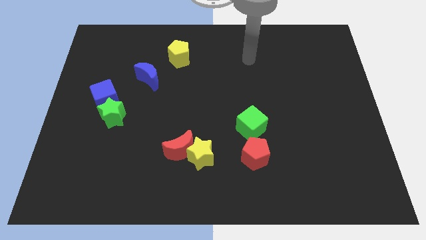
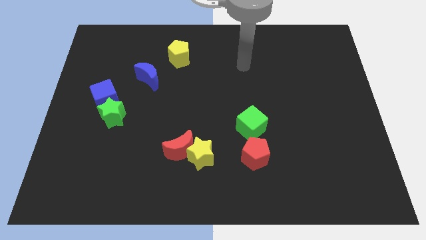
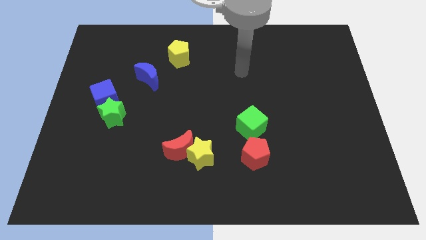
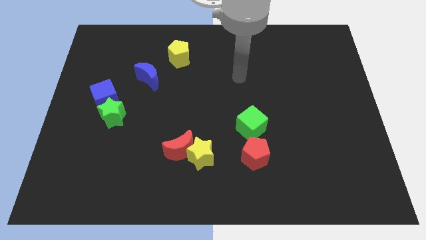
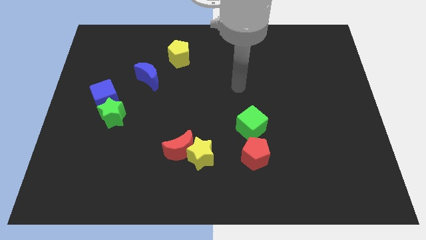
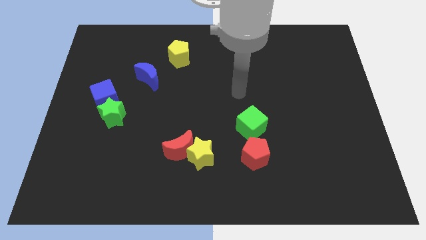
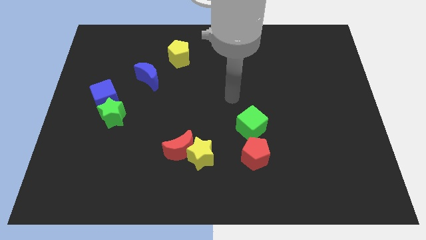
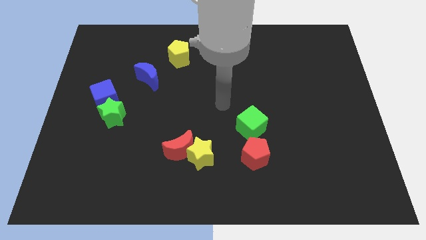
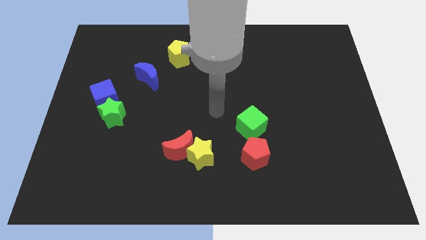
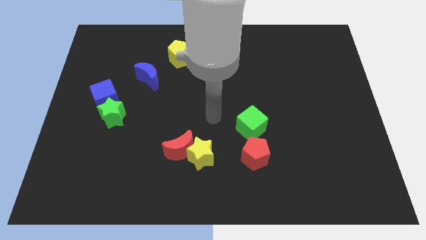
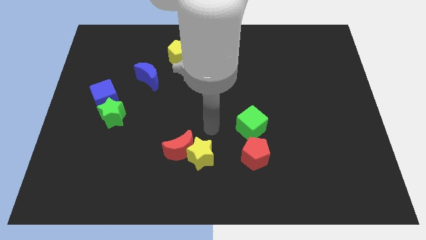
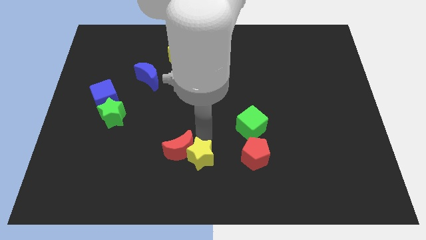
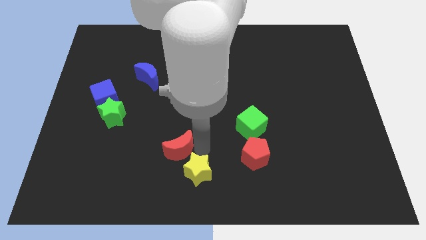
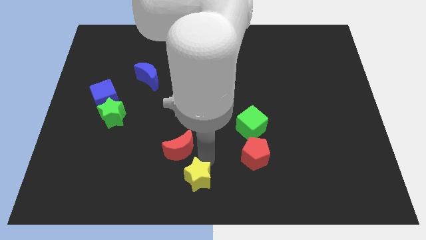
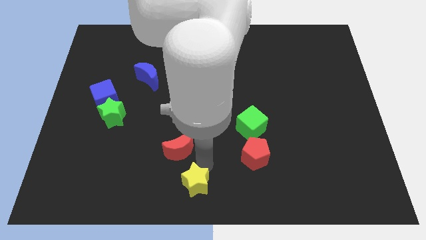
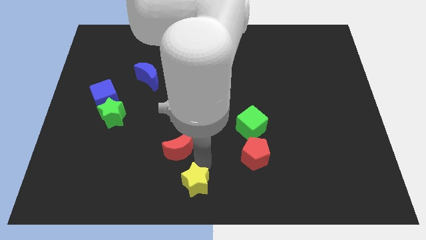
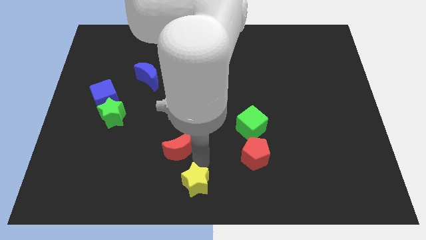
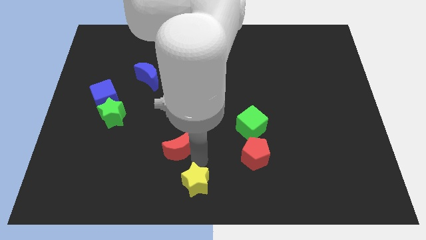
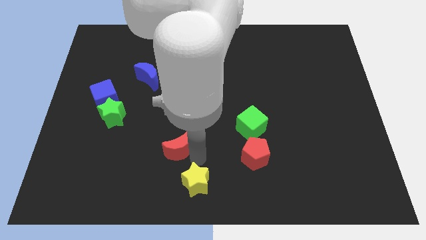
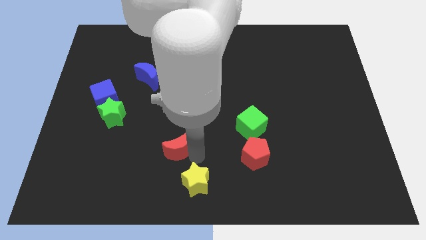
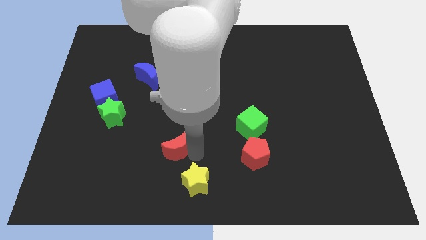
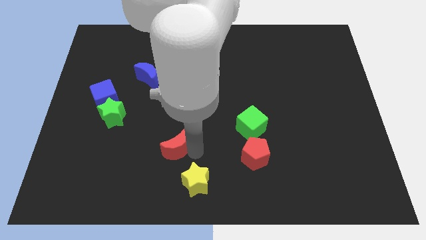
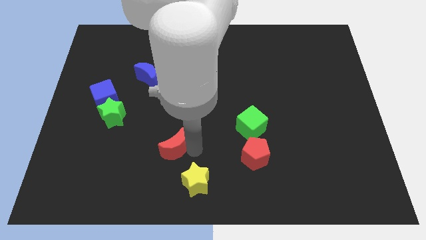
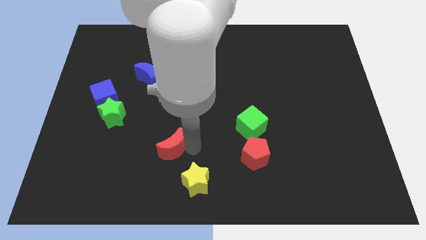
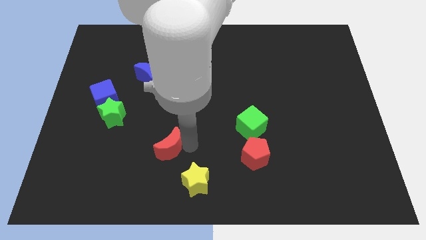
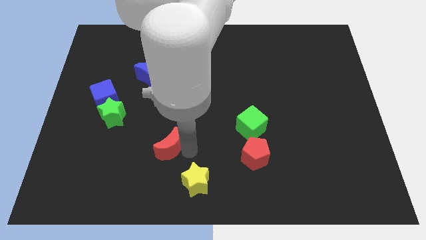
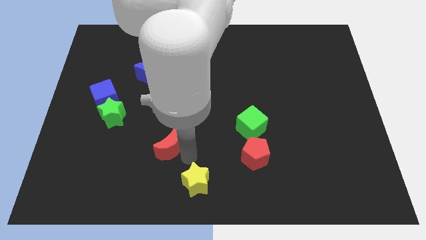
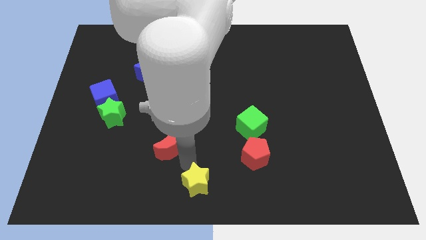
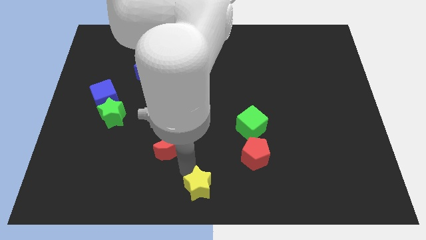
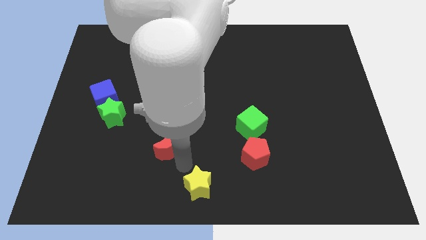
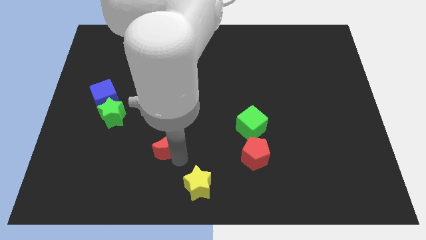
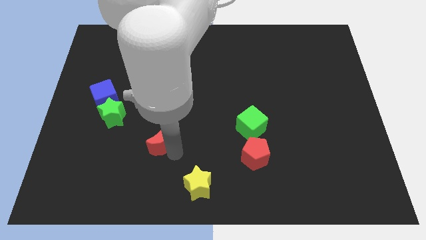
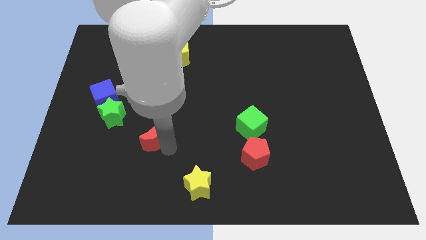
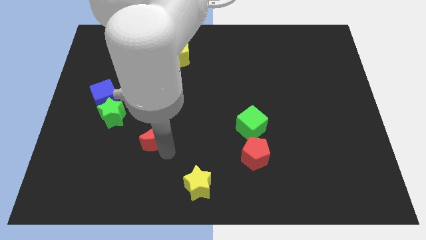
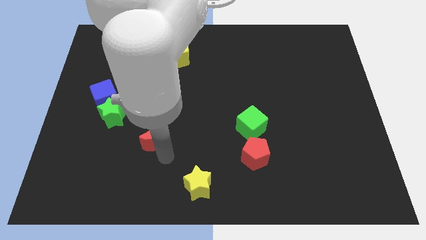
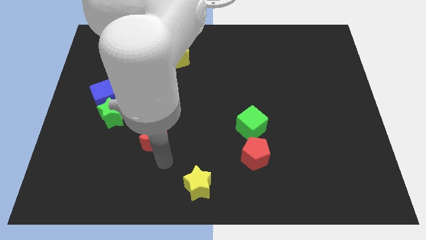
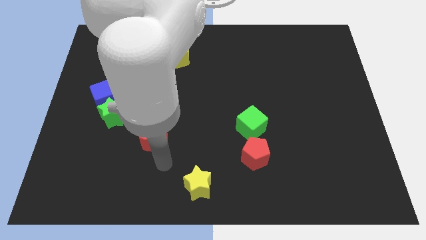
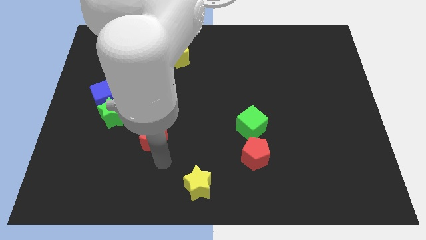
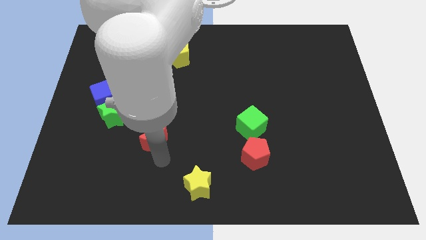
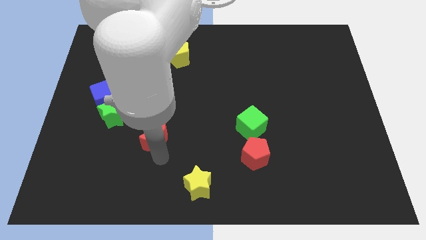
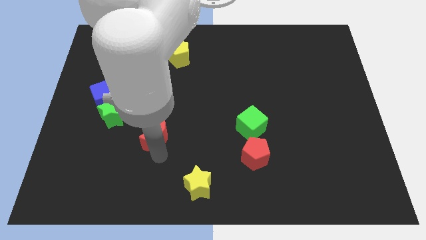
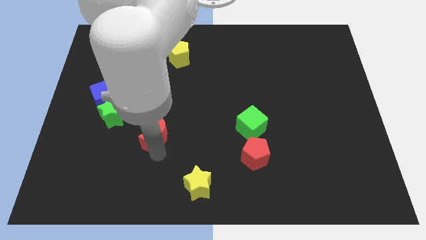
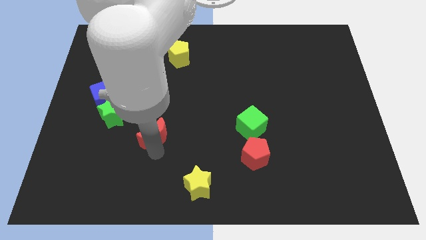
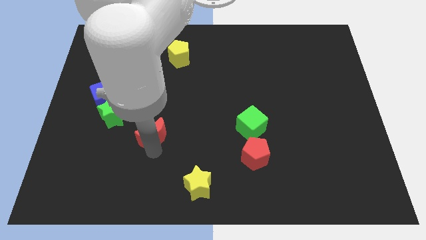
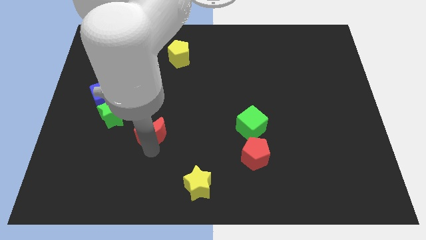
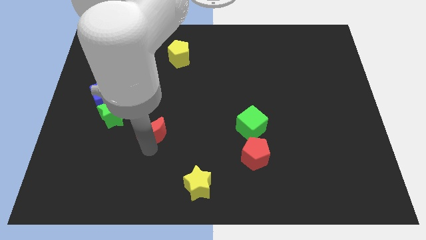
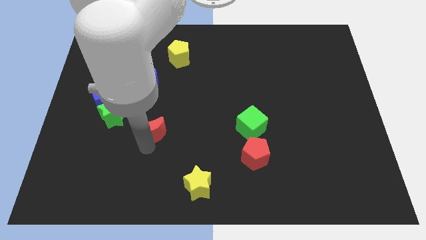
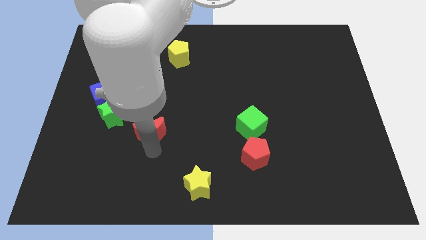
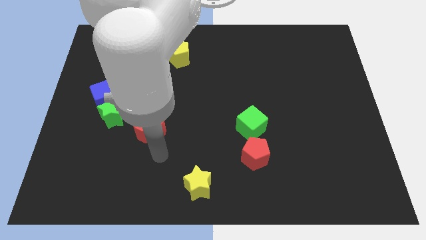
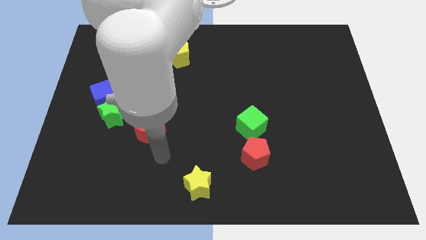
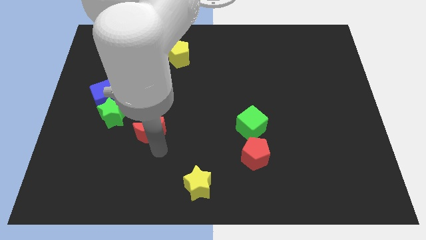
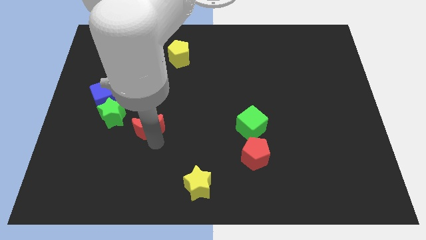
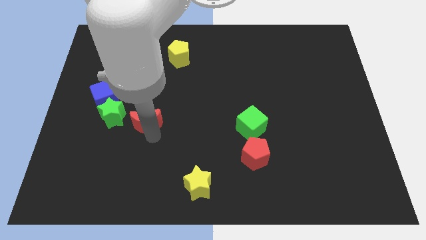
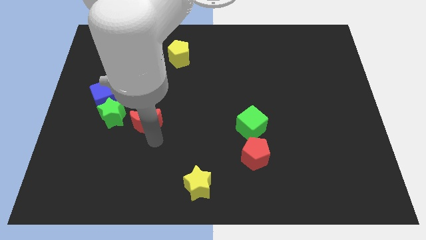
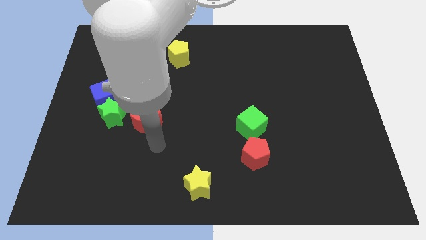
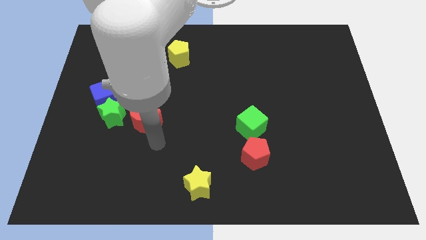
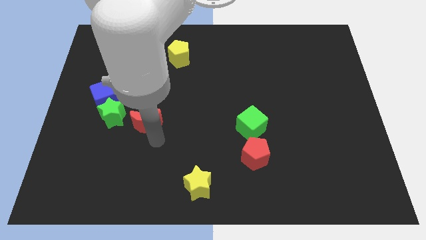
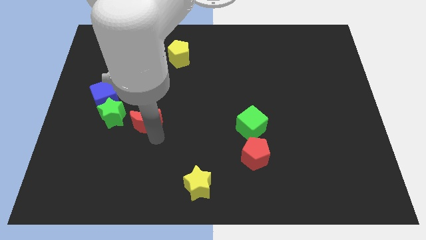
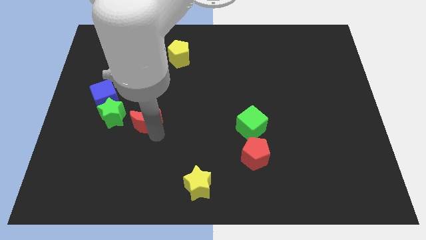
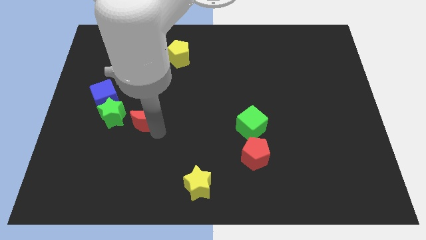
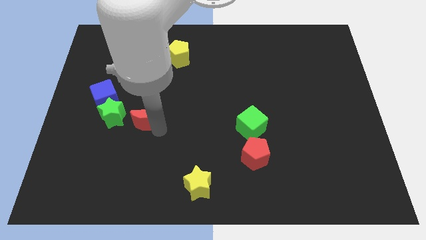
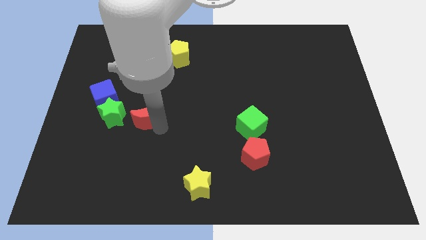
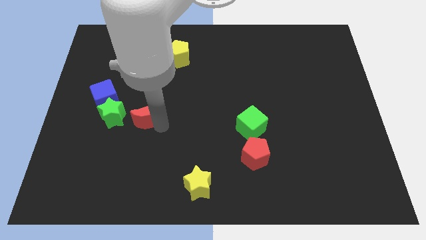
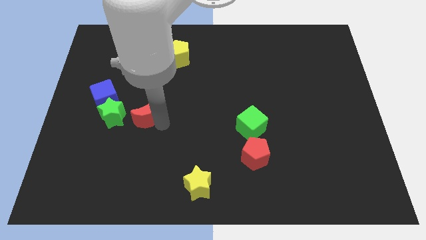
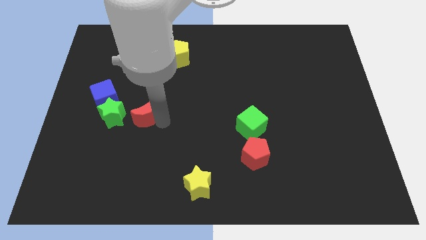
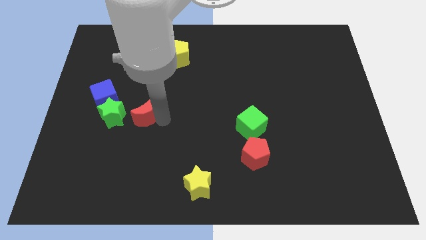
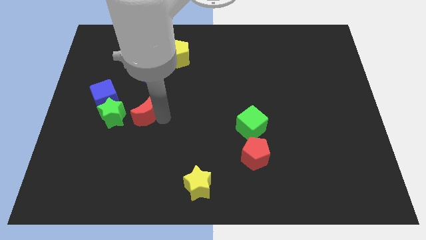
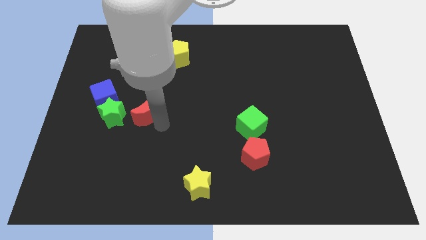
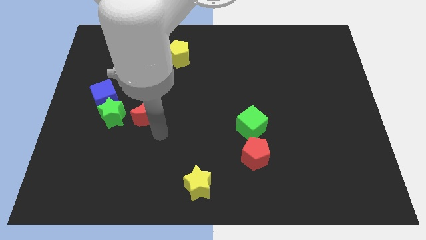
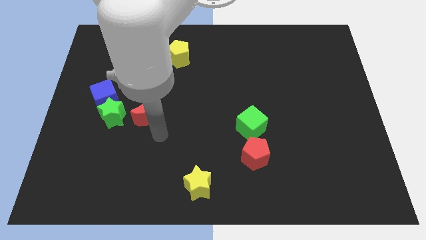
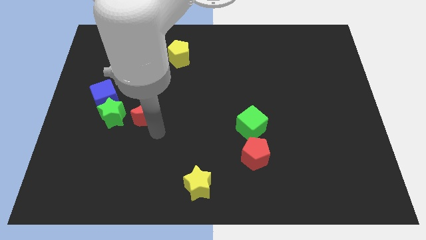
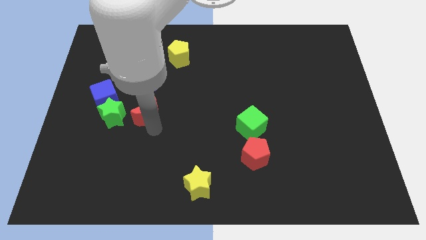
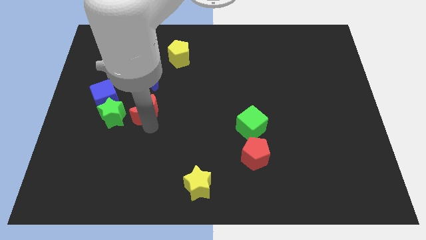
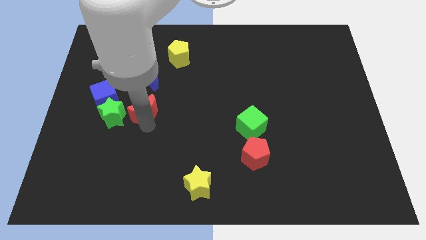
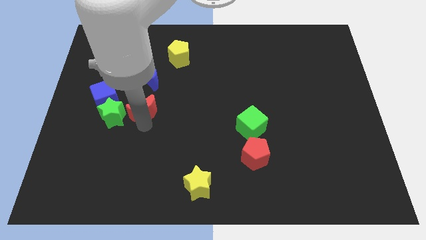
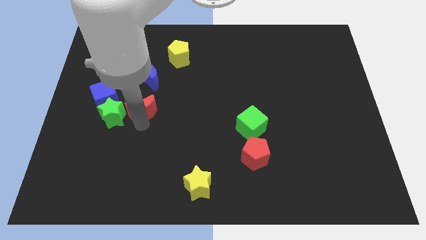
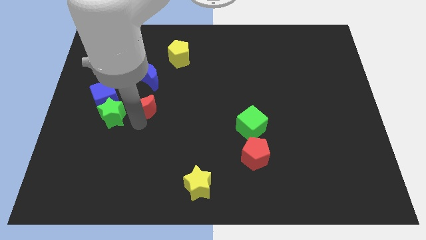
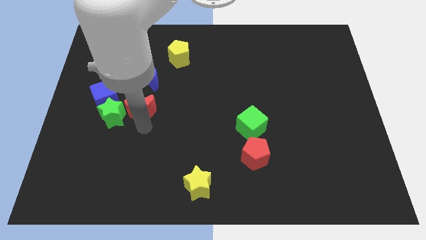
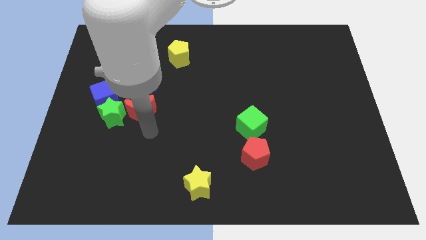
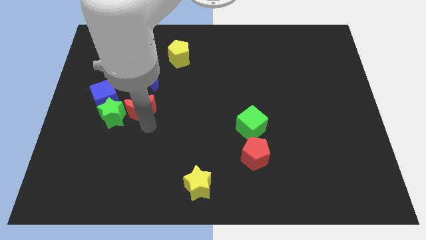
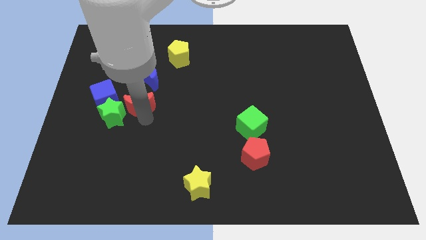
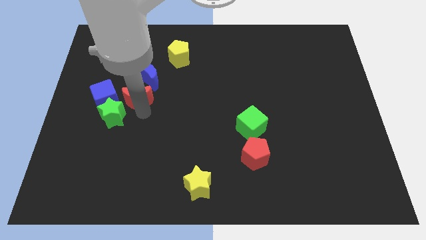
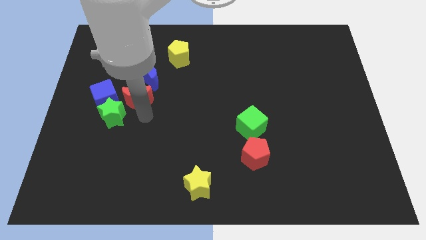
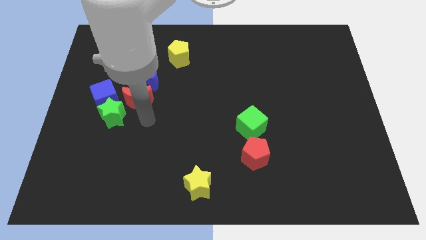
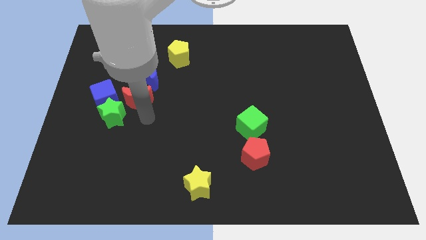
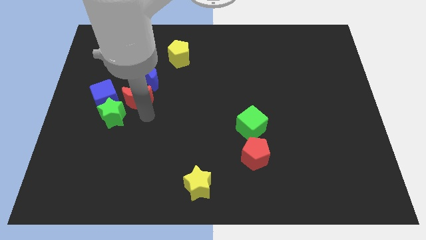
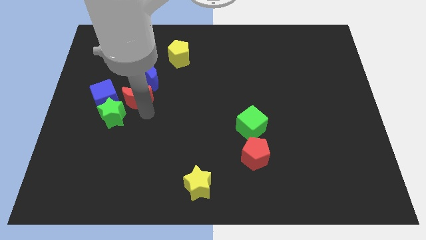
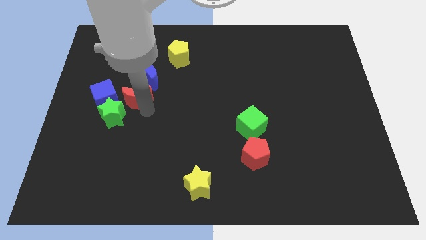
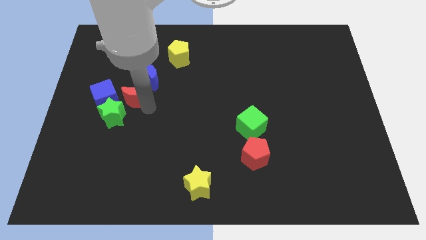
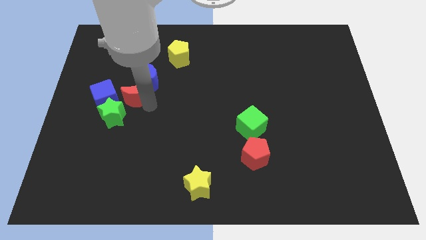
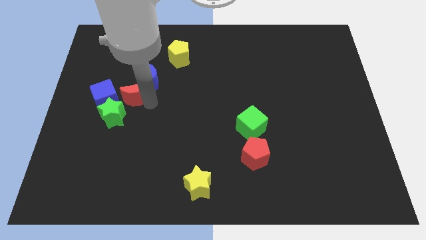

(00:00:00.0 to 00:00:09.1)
slide the red moon to the top right side of the blue cube
